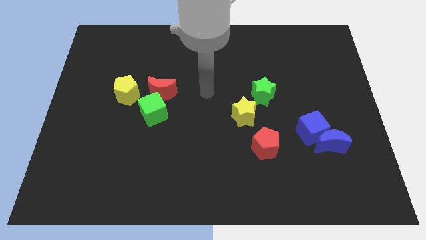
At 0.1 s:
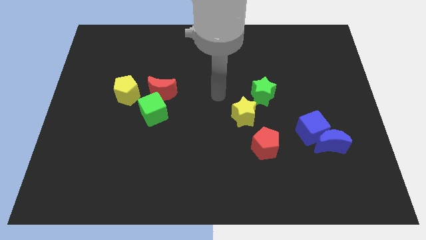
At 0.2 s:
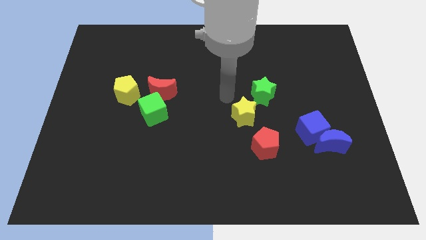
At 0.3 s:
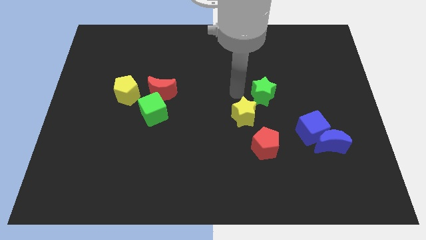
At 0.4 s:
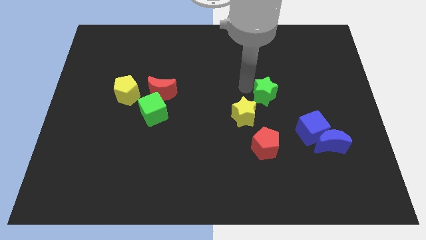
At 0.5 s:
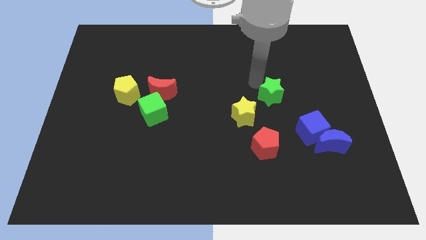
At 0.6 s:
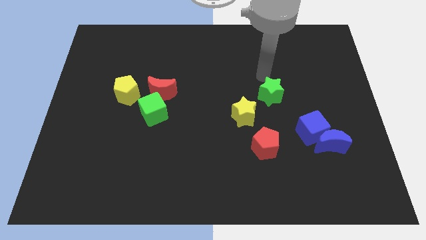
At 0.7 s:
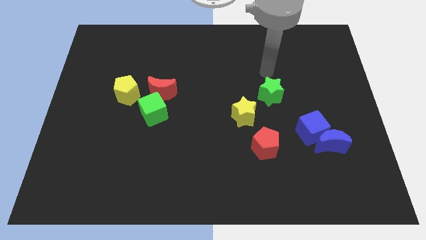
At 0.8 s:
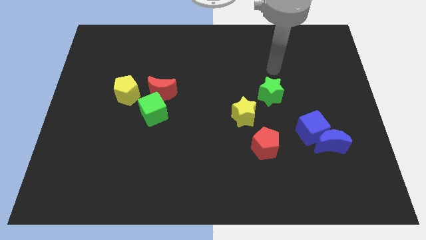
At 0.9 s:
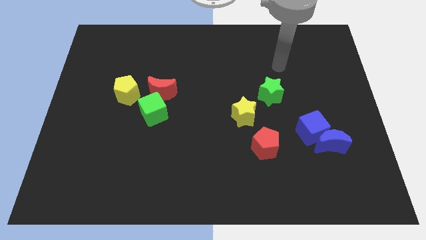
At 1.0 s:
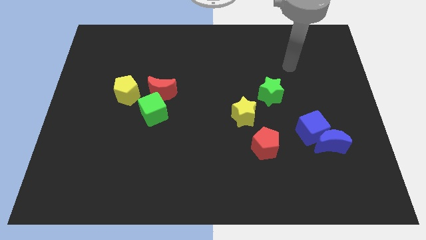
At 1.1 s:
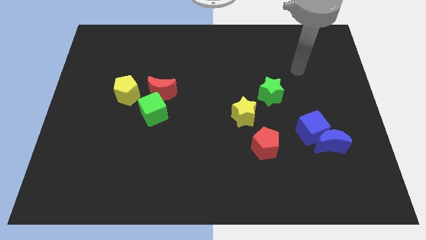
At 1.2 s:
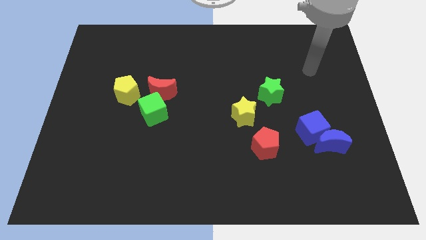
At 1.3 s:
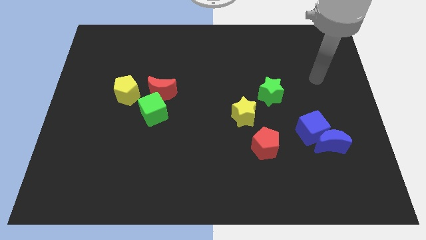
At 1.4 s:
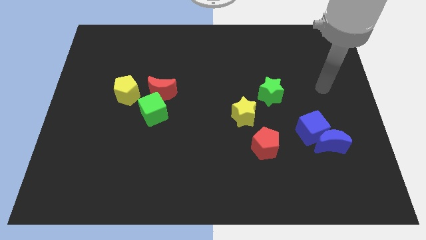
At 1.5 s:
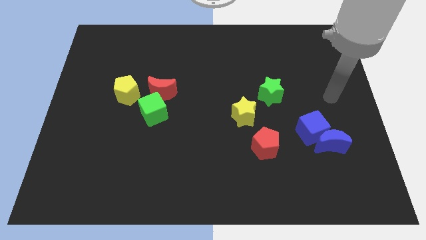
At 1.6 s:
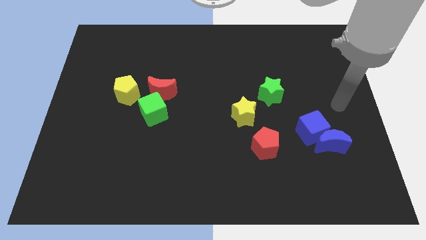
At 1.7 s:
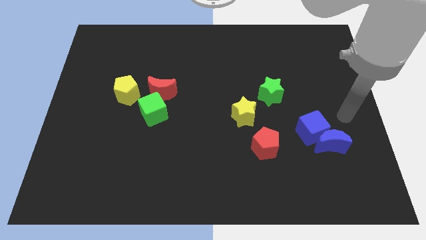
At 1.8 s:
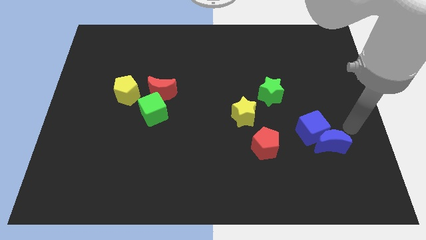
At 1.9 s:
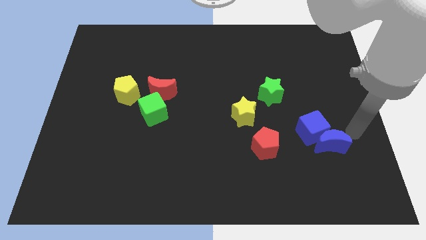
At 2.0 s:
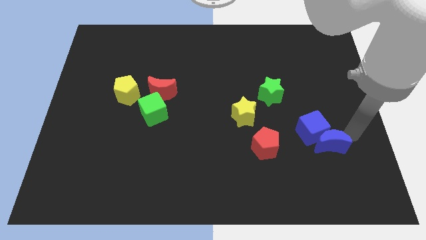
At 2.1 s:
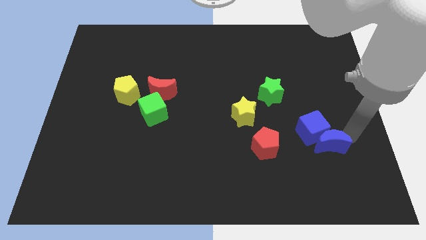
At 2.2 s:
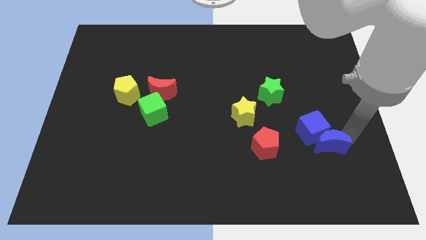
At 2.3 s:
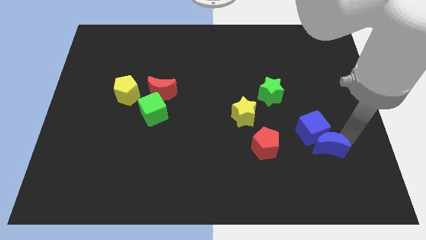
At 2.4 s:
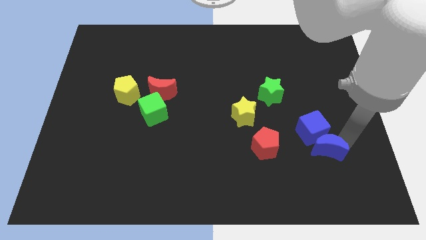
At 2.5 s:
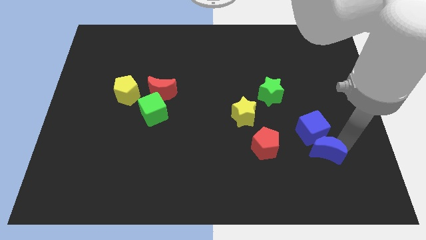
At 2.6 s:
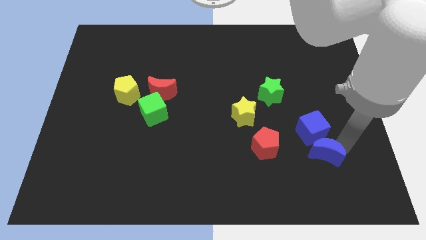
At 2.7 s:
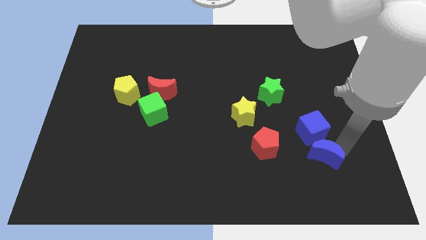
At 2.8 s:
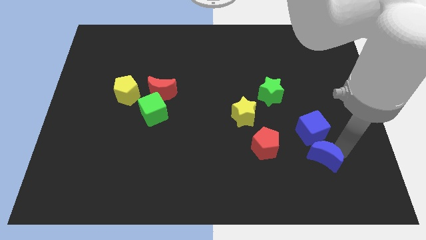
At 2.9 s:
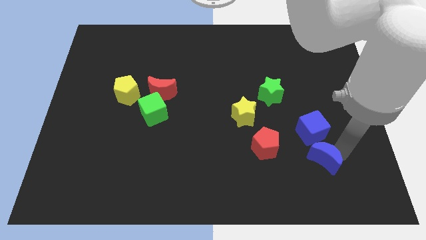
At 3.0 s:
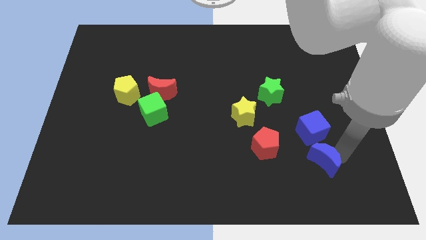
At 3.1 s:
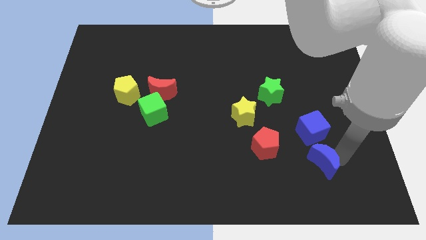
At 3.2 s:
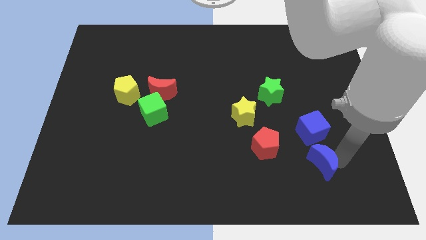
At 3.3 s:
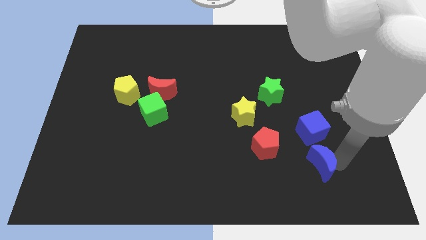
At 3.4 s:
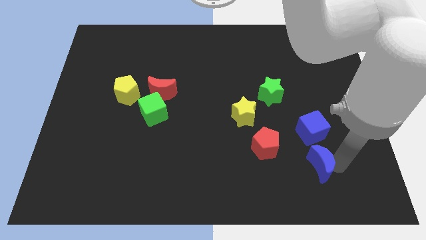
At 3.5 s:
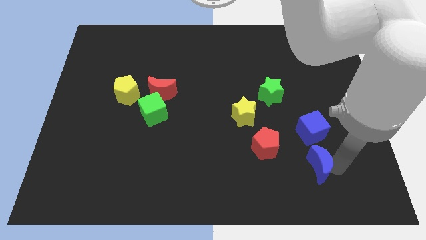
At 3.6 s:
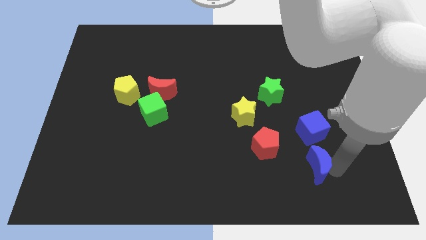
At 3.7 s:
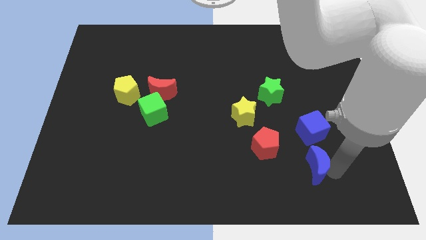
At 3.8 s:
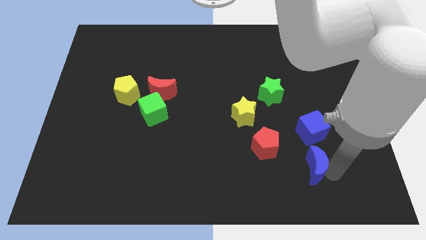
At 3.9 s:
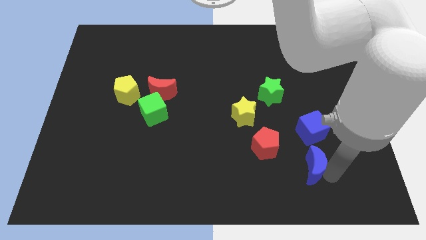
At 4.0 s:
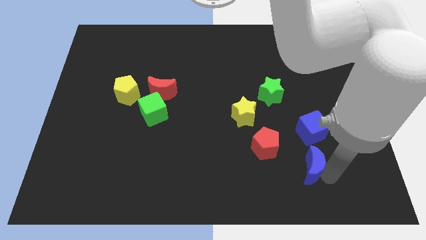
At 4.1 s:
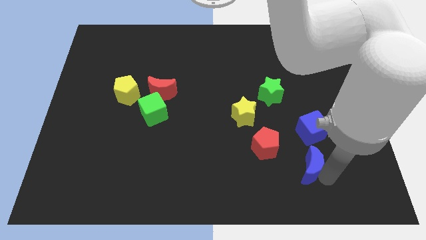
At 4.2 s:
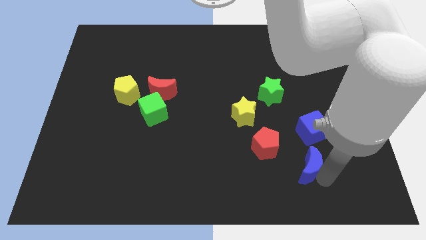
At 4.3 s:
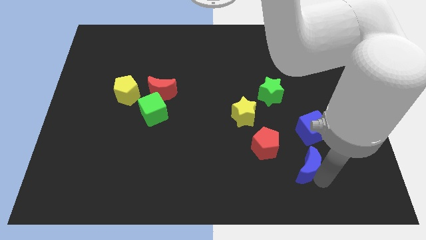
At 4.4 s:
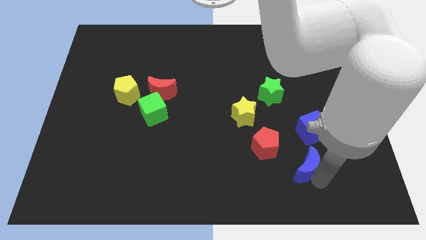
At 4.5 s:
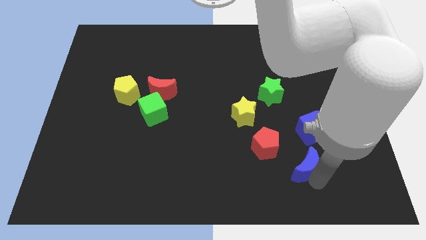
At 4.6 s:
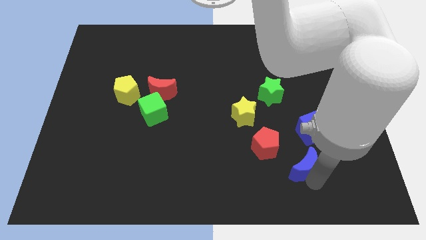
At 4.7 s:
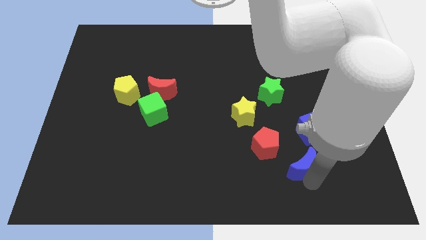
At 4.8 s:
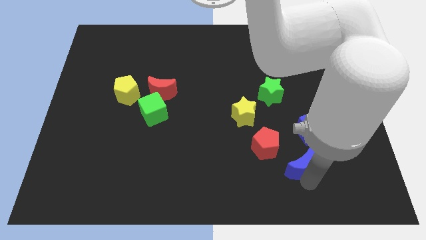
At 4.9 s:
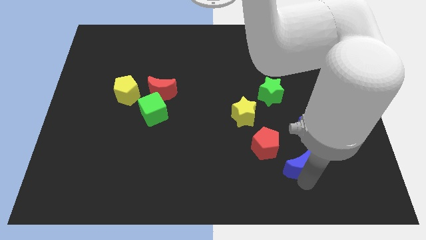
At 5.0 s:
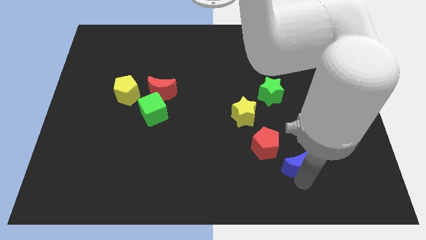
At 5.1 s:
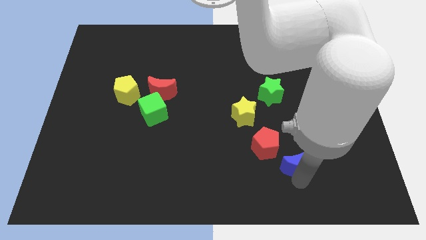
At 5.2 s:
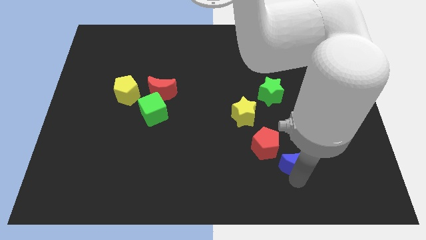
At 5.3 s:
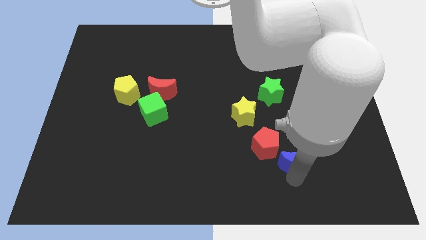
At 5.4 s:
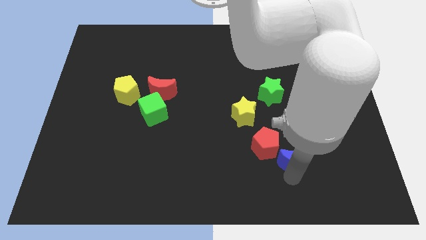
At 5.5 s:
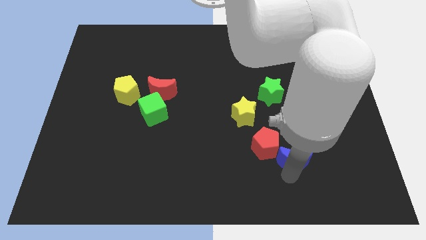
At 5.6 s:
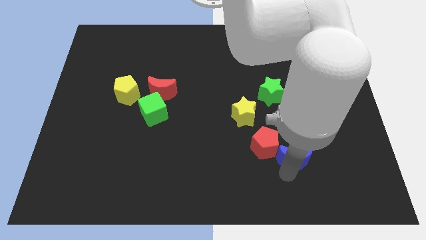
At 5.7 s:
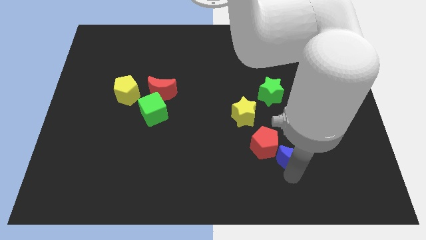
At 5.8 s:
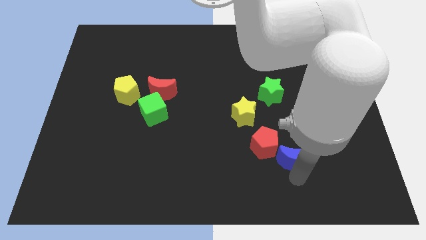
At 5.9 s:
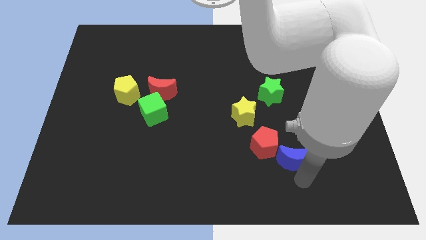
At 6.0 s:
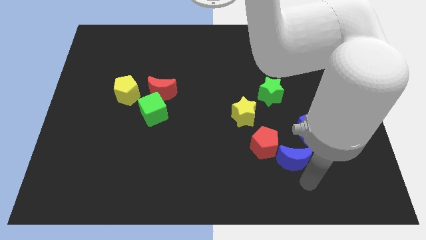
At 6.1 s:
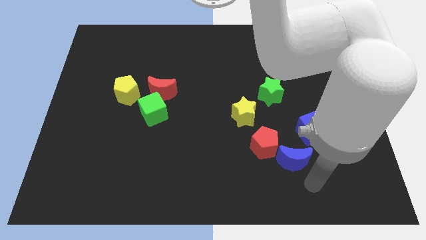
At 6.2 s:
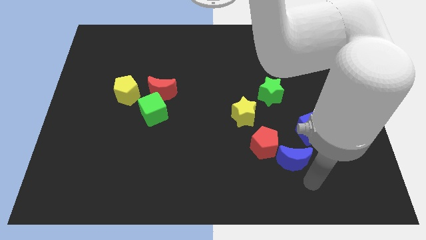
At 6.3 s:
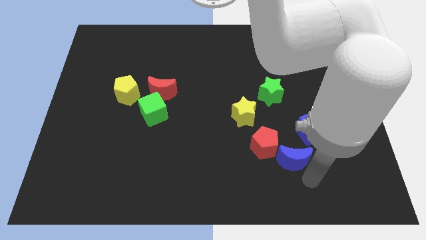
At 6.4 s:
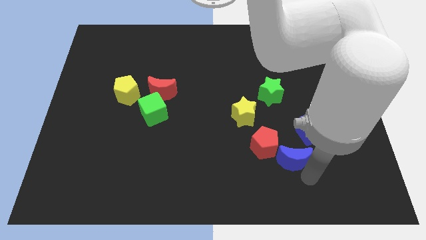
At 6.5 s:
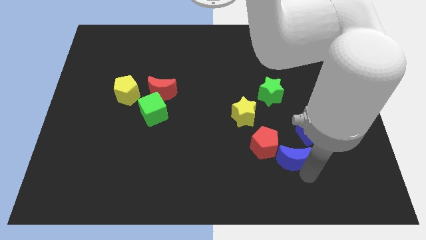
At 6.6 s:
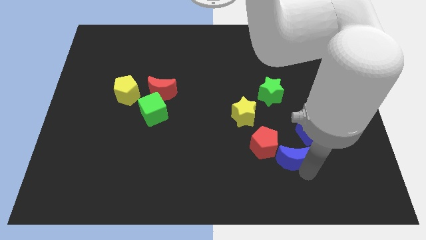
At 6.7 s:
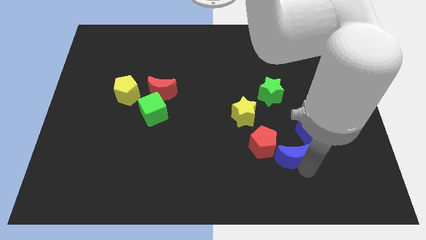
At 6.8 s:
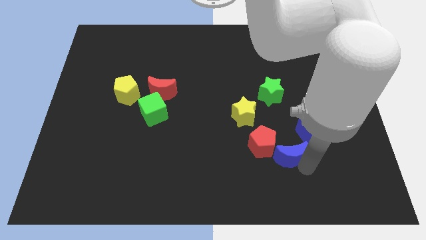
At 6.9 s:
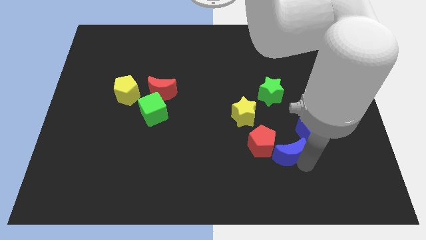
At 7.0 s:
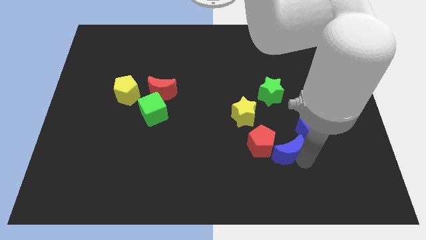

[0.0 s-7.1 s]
put the blue moon towards the red pentagon
